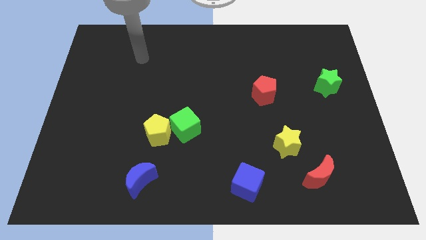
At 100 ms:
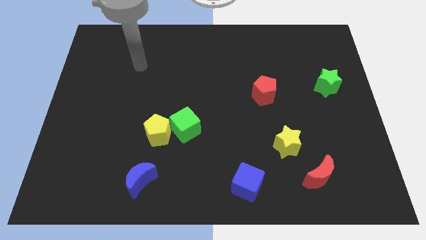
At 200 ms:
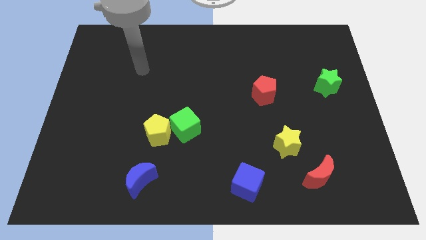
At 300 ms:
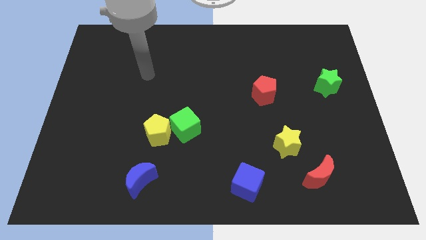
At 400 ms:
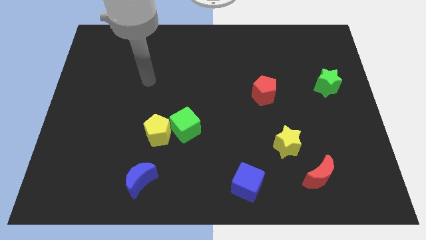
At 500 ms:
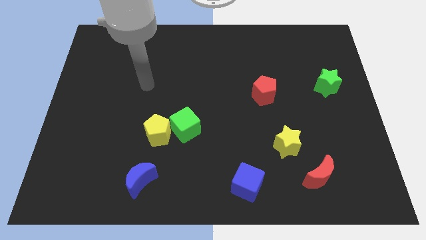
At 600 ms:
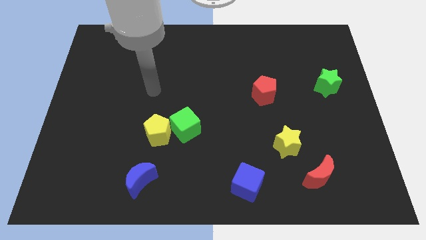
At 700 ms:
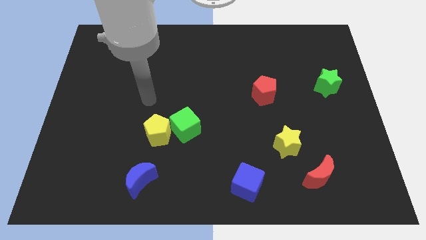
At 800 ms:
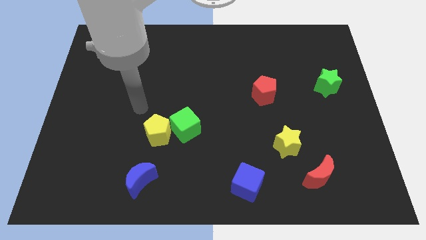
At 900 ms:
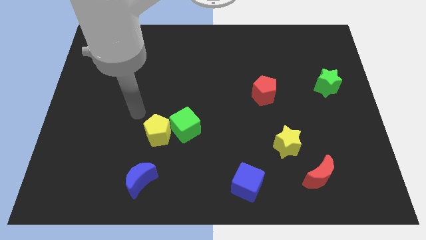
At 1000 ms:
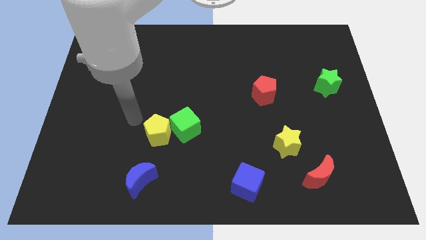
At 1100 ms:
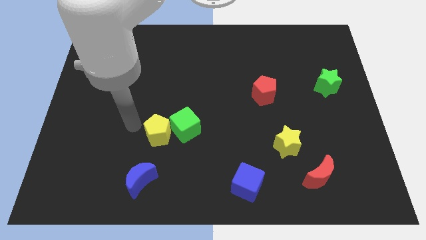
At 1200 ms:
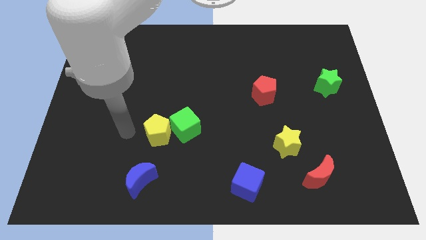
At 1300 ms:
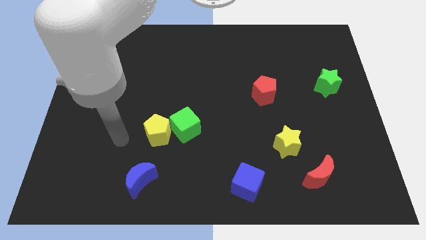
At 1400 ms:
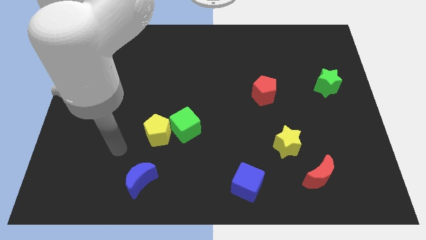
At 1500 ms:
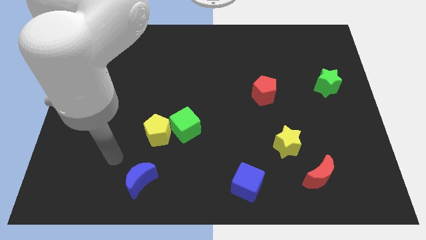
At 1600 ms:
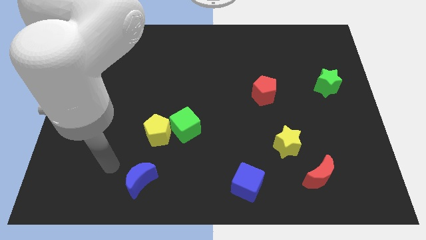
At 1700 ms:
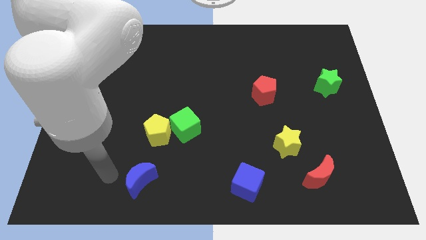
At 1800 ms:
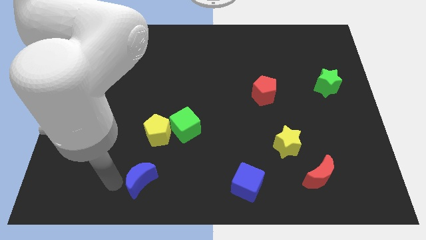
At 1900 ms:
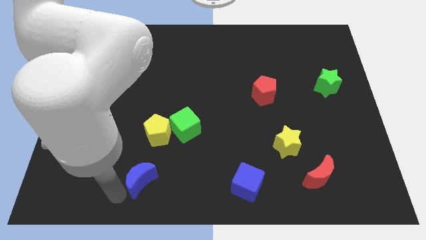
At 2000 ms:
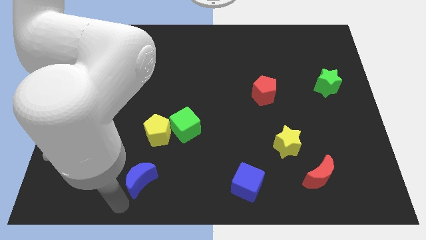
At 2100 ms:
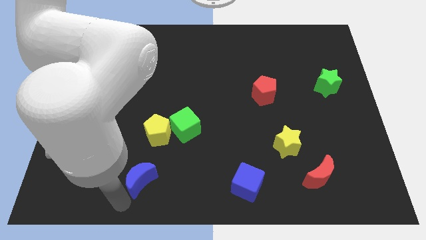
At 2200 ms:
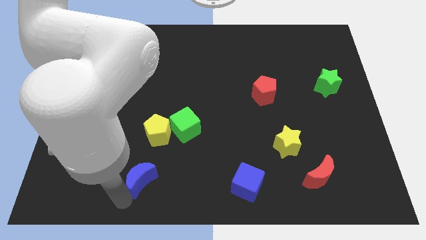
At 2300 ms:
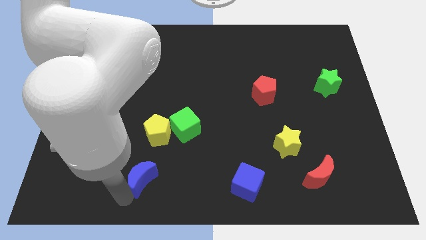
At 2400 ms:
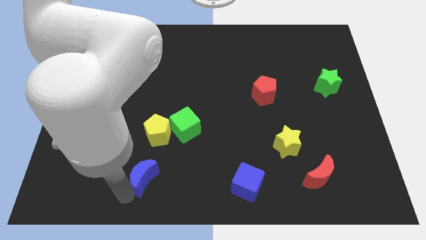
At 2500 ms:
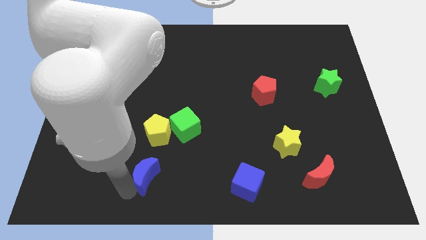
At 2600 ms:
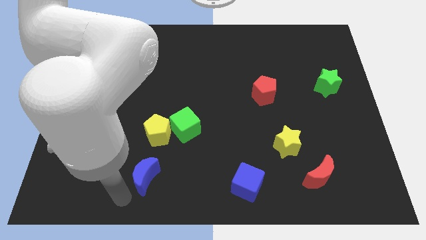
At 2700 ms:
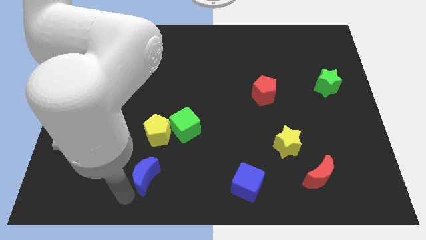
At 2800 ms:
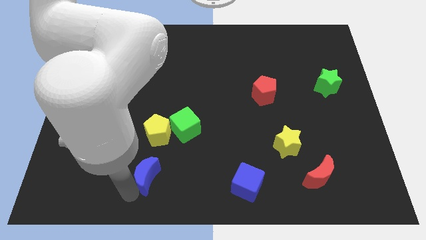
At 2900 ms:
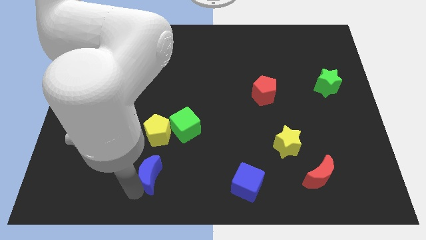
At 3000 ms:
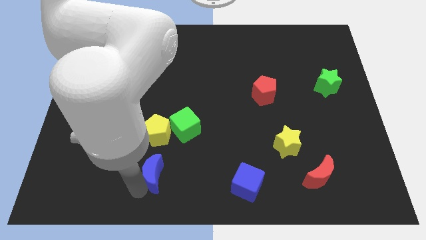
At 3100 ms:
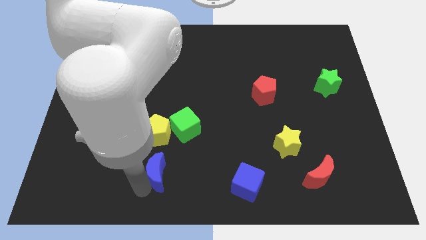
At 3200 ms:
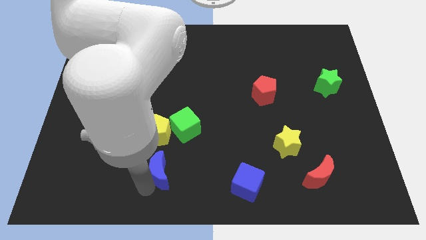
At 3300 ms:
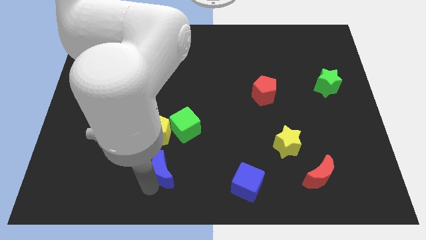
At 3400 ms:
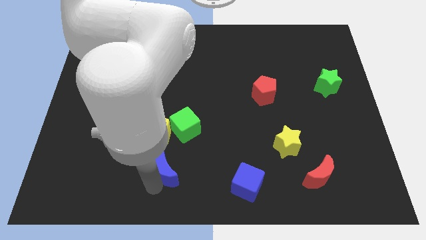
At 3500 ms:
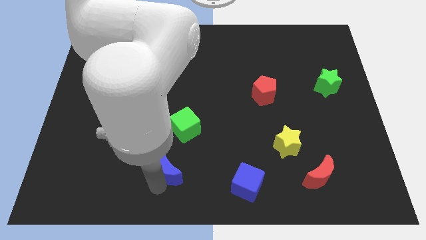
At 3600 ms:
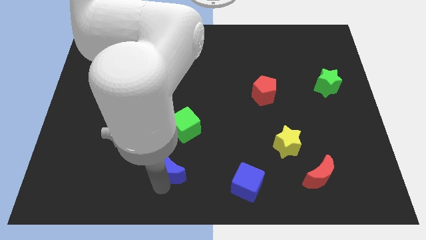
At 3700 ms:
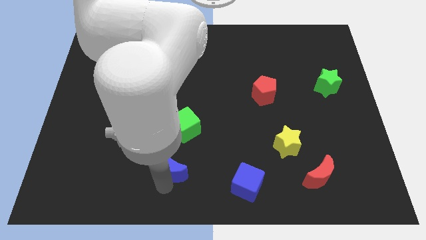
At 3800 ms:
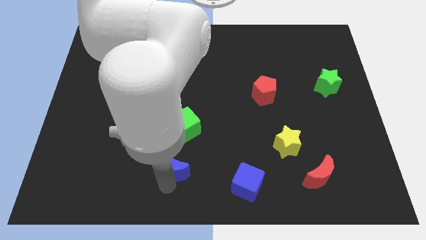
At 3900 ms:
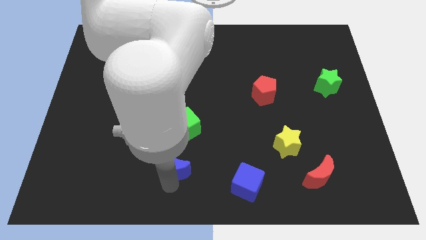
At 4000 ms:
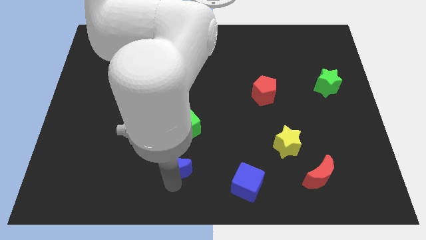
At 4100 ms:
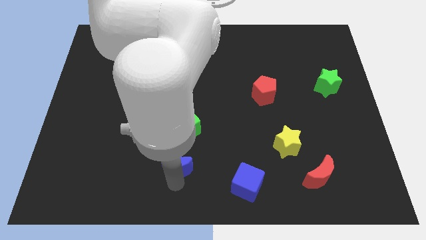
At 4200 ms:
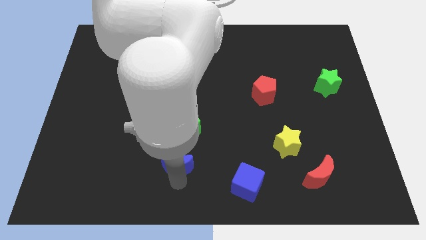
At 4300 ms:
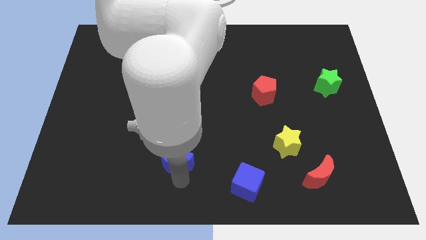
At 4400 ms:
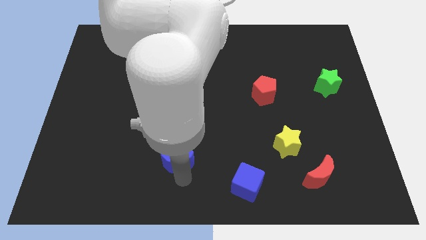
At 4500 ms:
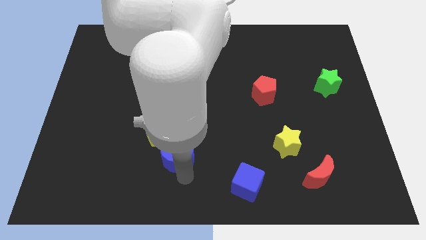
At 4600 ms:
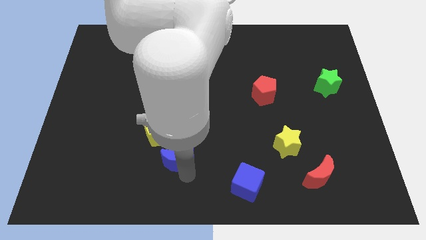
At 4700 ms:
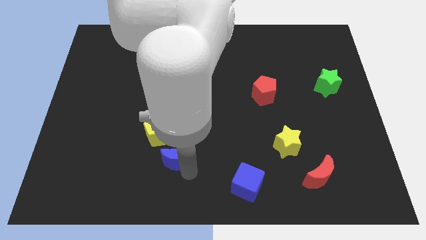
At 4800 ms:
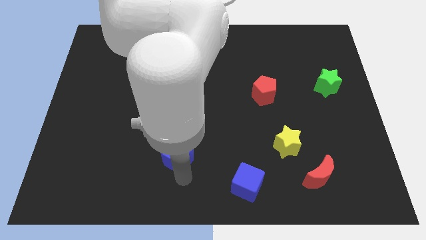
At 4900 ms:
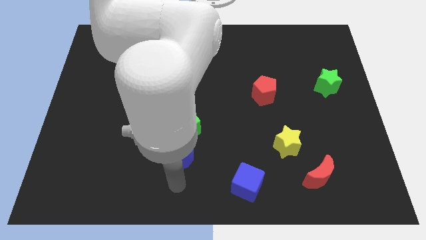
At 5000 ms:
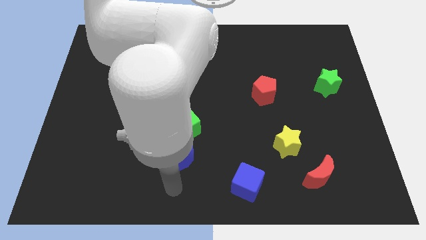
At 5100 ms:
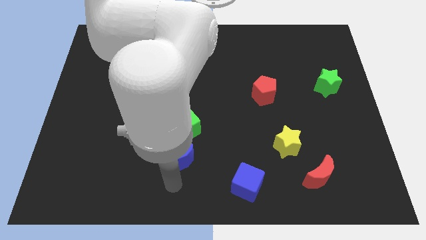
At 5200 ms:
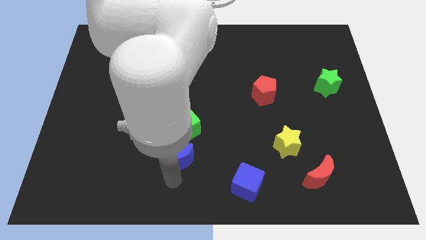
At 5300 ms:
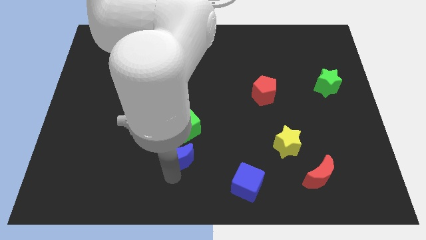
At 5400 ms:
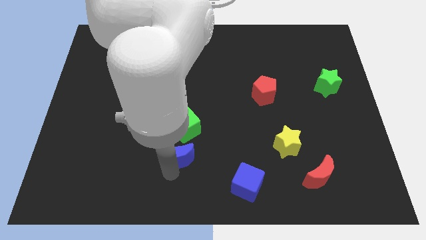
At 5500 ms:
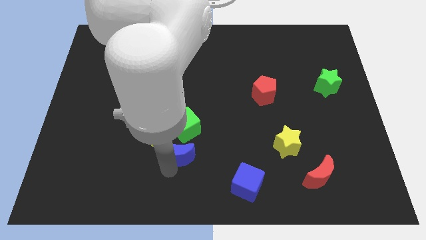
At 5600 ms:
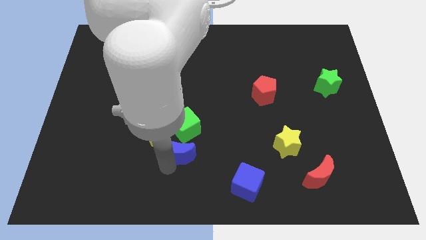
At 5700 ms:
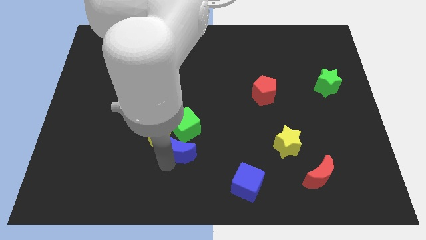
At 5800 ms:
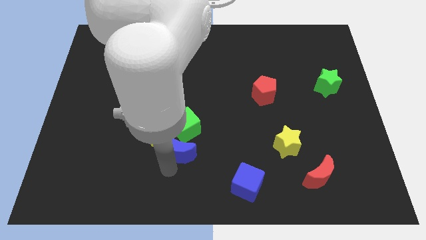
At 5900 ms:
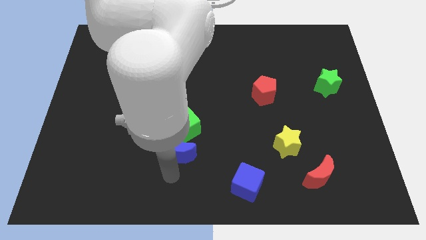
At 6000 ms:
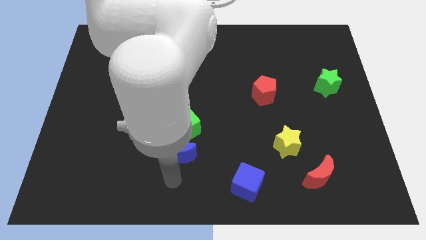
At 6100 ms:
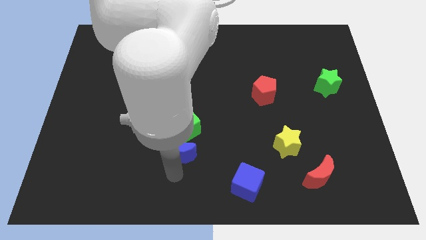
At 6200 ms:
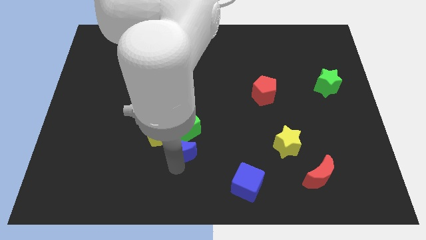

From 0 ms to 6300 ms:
move the blue moon next to the green cube

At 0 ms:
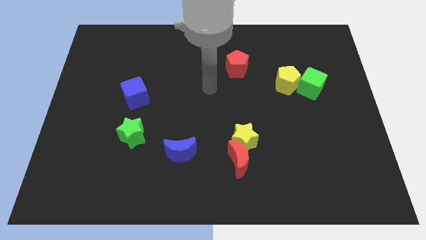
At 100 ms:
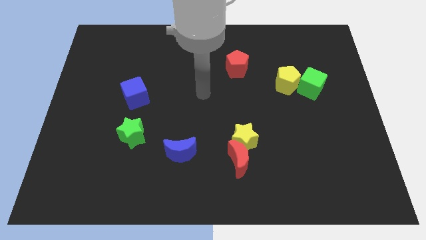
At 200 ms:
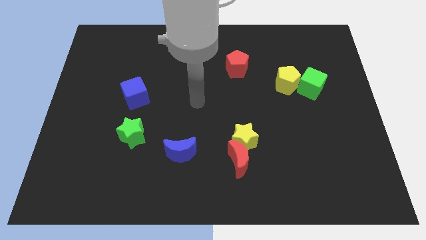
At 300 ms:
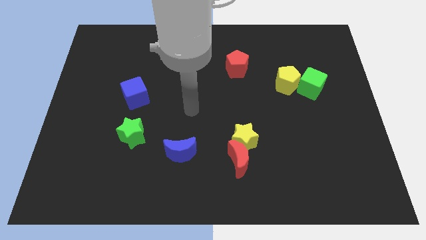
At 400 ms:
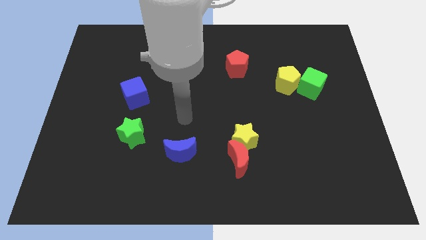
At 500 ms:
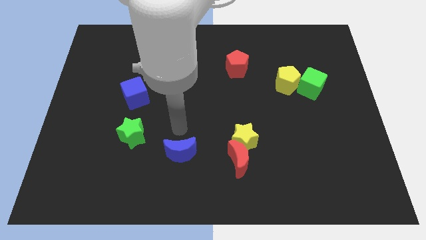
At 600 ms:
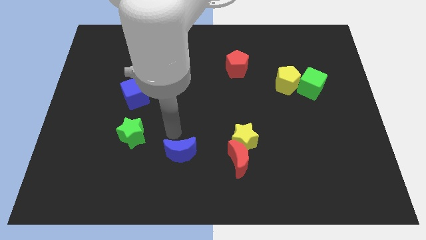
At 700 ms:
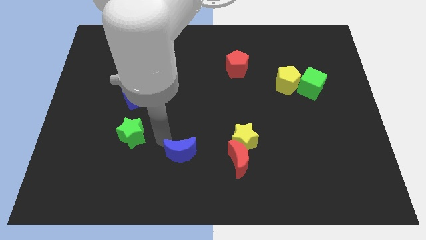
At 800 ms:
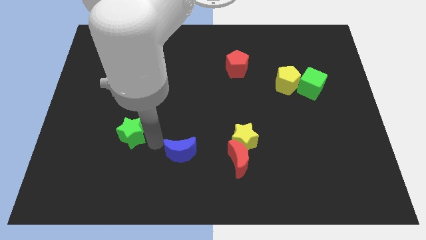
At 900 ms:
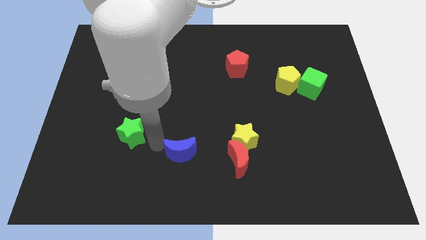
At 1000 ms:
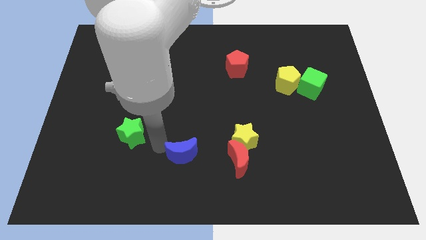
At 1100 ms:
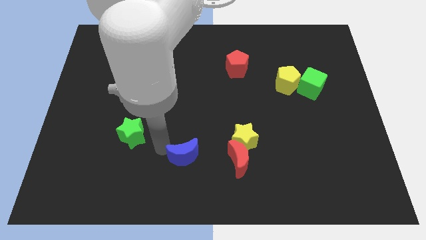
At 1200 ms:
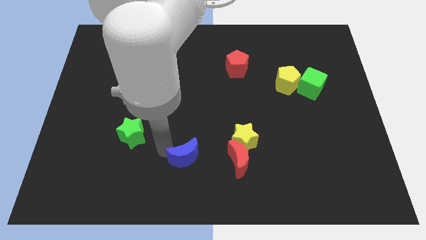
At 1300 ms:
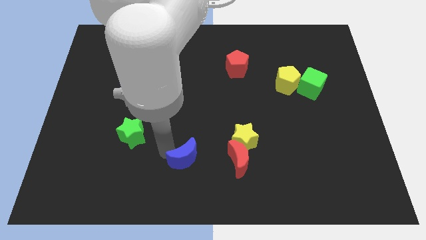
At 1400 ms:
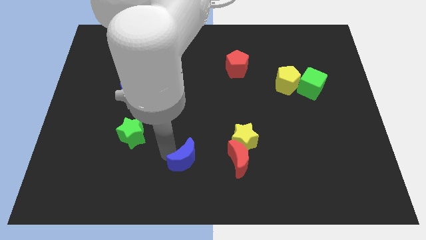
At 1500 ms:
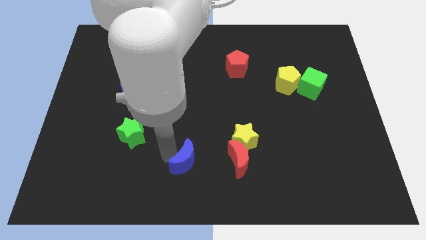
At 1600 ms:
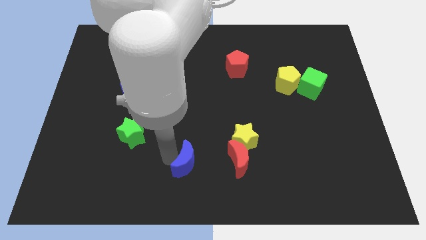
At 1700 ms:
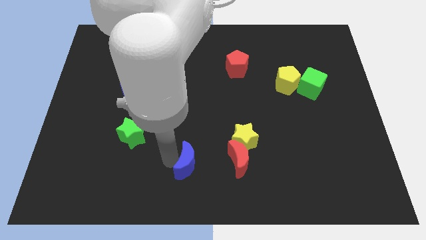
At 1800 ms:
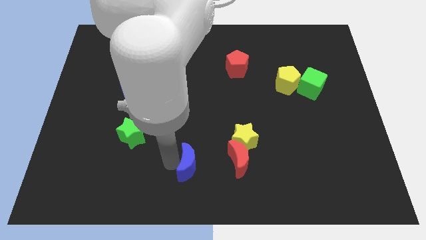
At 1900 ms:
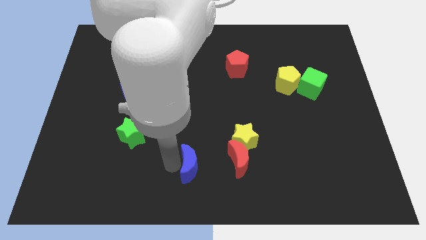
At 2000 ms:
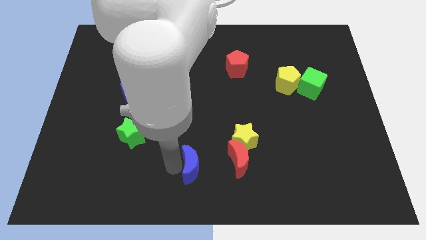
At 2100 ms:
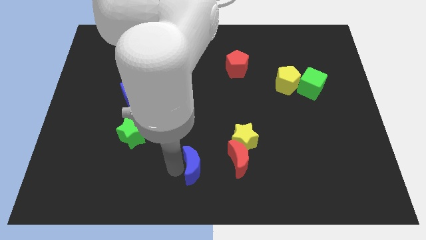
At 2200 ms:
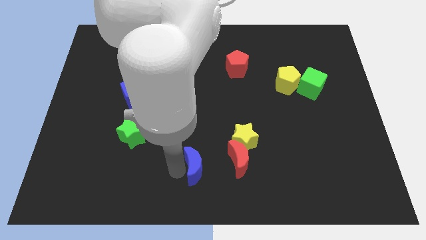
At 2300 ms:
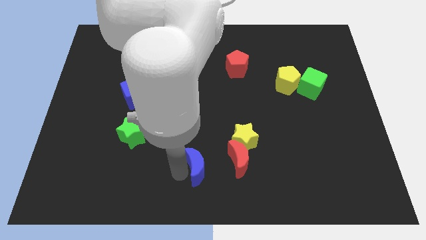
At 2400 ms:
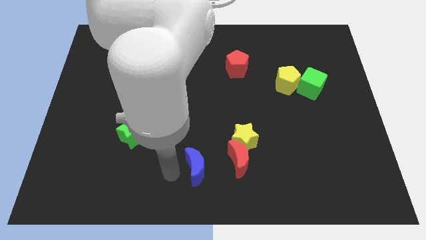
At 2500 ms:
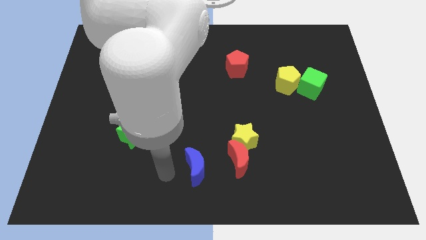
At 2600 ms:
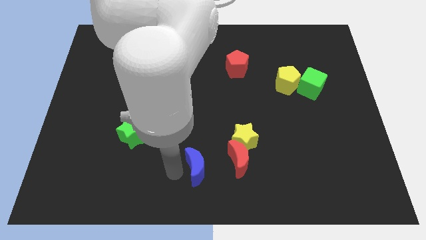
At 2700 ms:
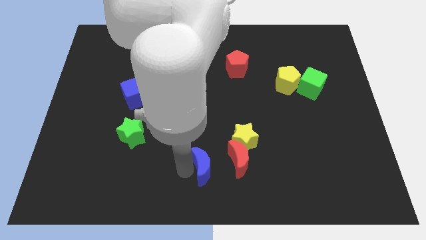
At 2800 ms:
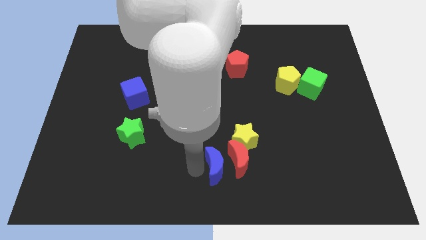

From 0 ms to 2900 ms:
slide the blue moon next to the red moon
